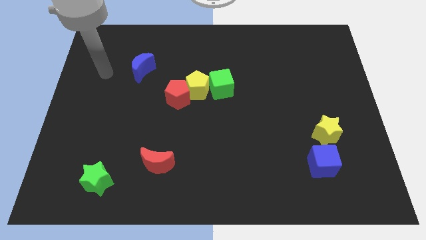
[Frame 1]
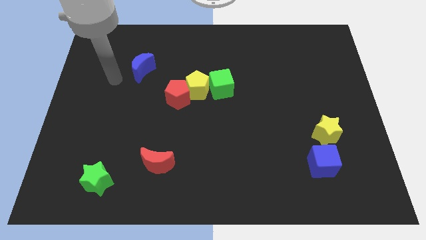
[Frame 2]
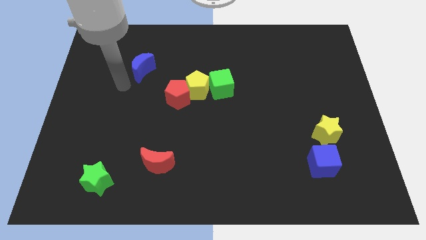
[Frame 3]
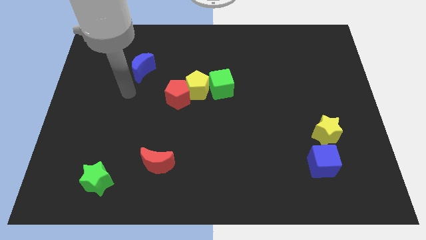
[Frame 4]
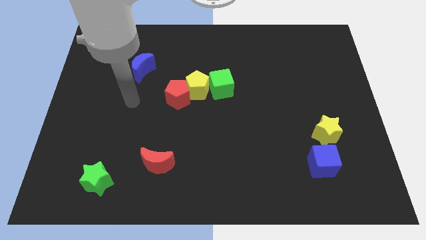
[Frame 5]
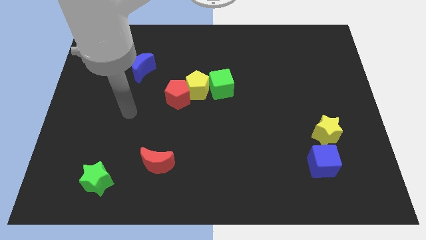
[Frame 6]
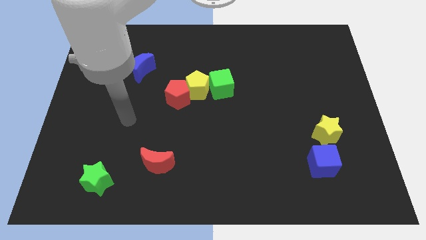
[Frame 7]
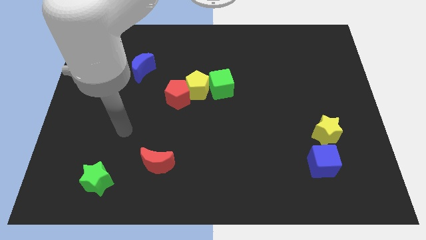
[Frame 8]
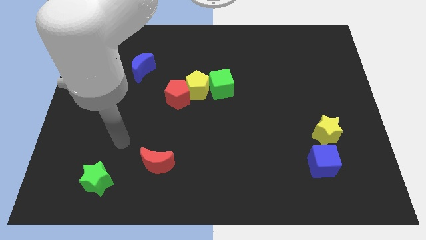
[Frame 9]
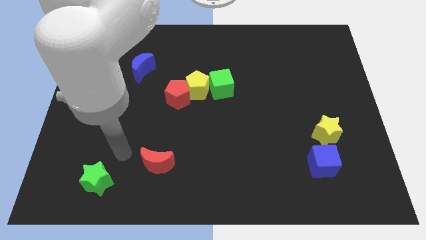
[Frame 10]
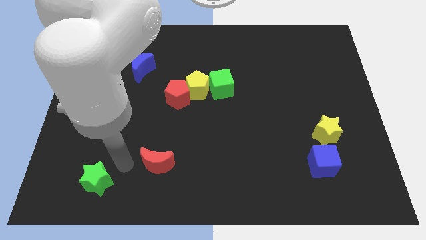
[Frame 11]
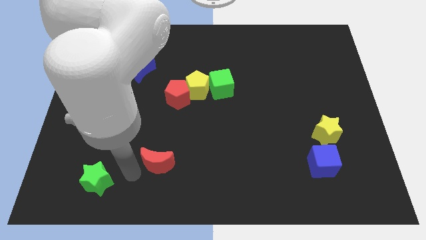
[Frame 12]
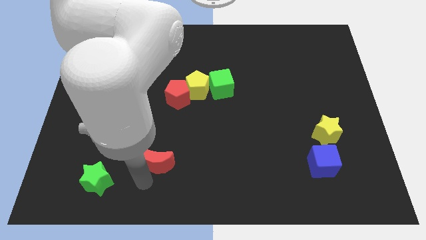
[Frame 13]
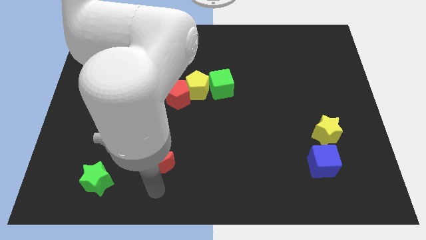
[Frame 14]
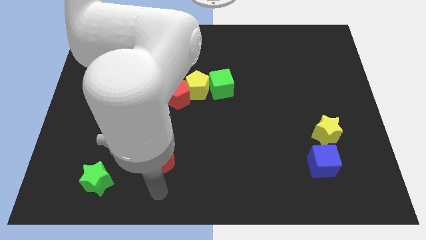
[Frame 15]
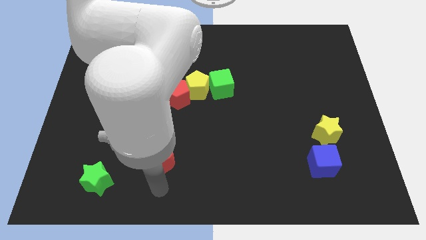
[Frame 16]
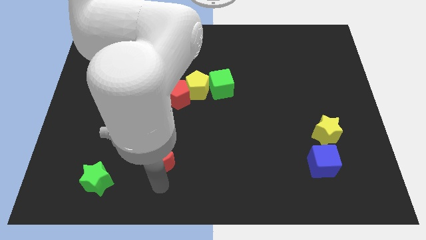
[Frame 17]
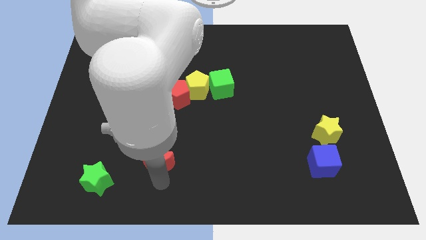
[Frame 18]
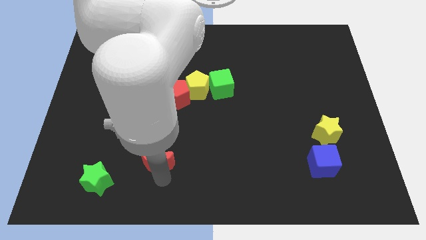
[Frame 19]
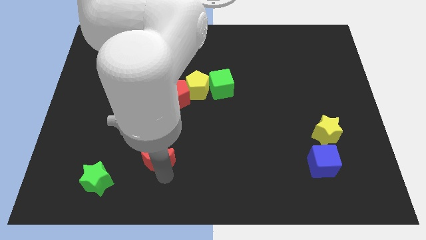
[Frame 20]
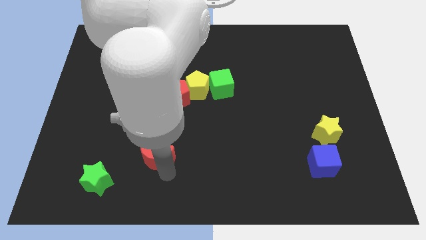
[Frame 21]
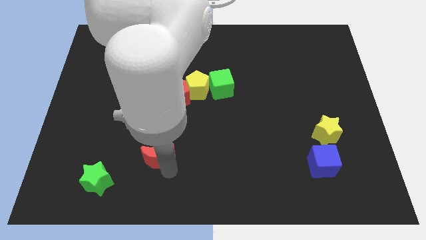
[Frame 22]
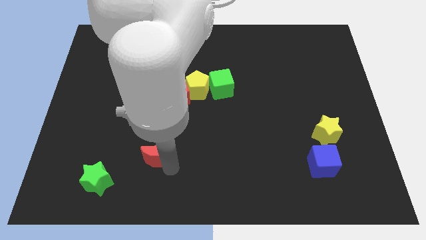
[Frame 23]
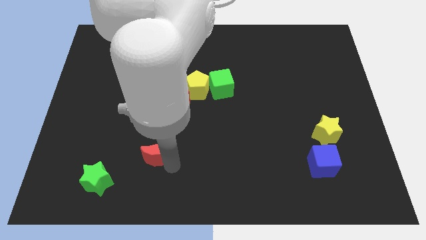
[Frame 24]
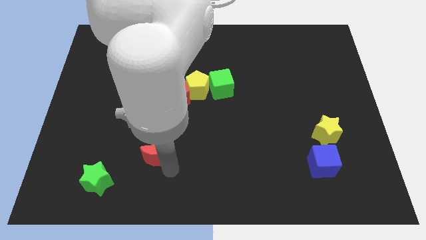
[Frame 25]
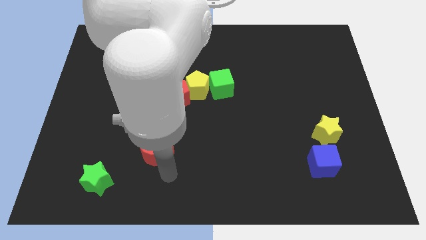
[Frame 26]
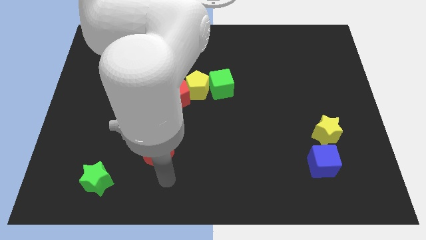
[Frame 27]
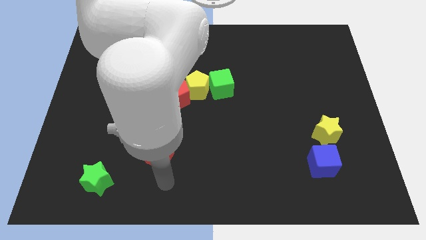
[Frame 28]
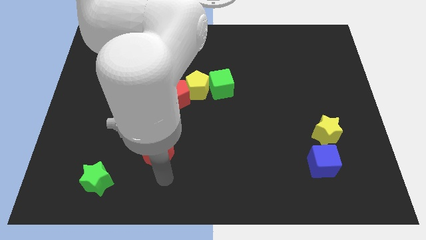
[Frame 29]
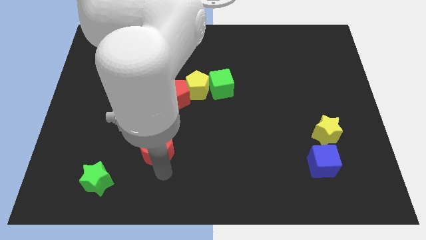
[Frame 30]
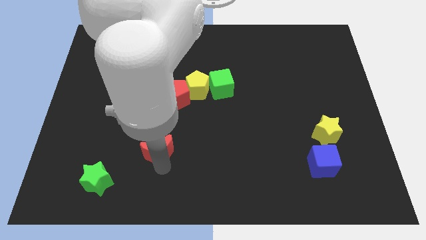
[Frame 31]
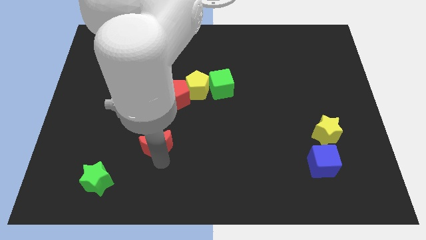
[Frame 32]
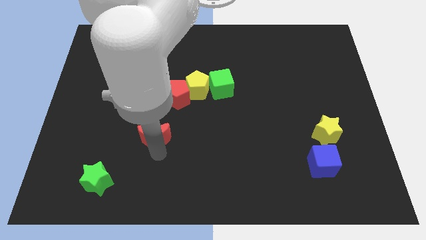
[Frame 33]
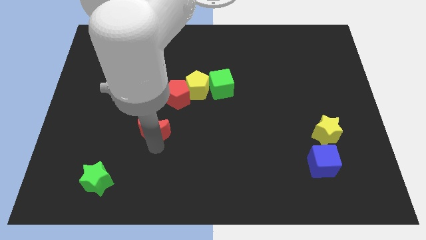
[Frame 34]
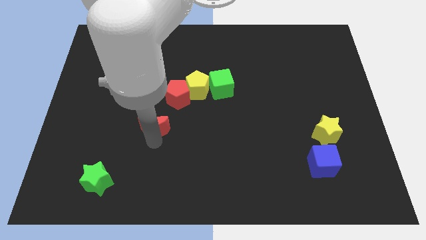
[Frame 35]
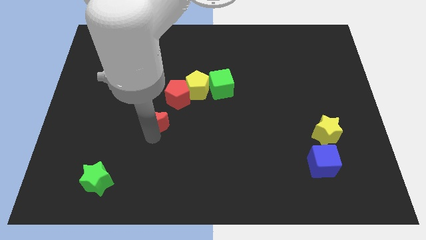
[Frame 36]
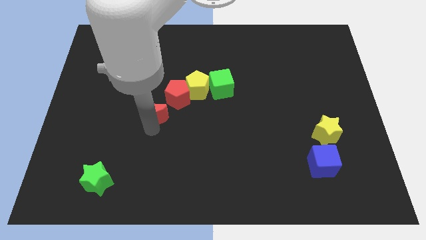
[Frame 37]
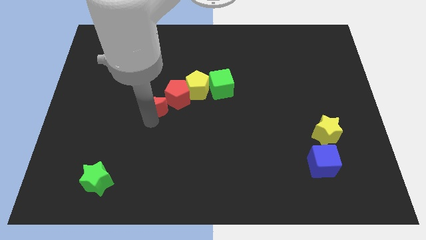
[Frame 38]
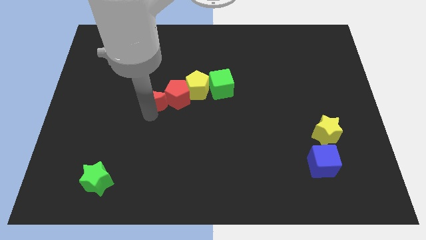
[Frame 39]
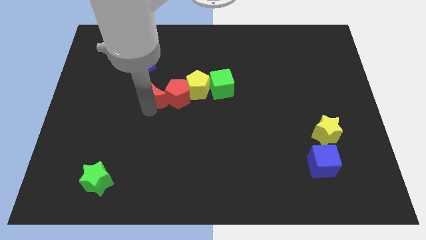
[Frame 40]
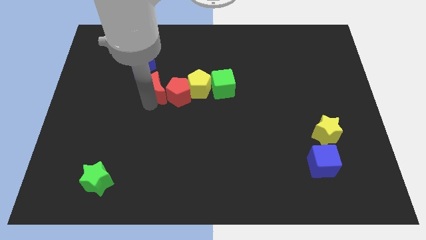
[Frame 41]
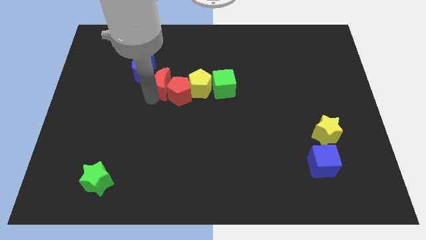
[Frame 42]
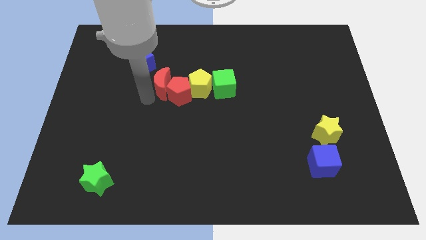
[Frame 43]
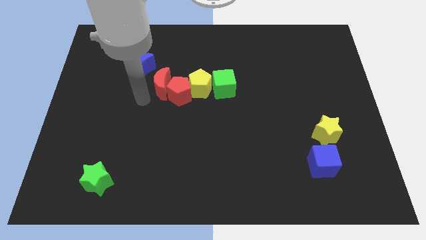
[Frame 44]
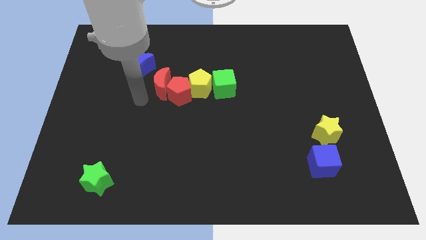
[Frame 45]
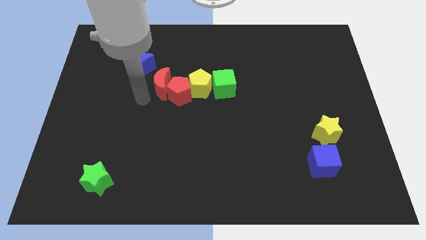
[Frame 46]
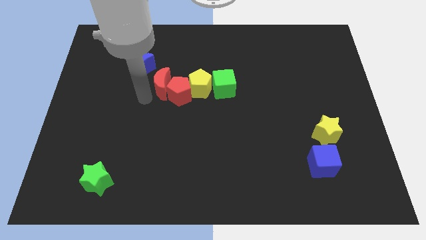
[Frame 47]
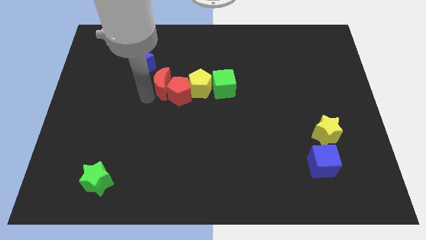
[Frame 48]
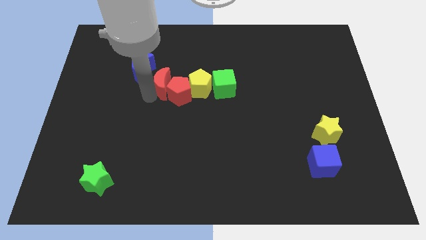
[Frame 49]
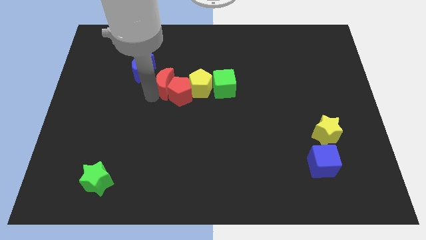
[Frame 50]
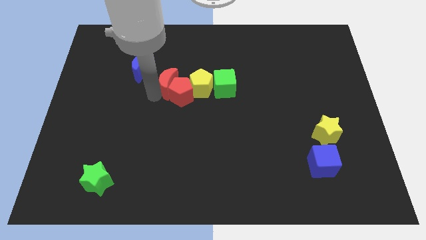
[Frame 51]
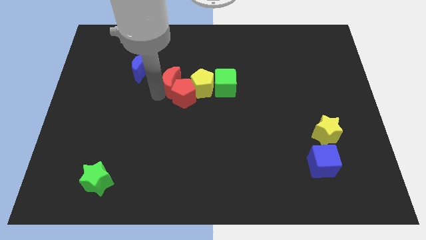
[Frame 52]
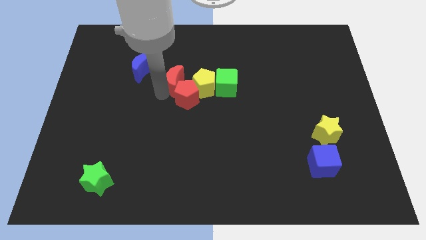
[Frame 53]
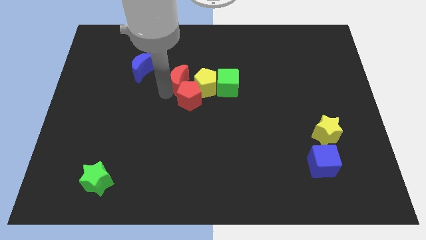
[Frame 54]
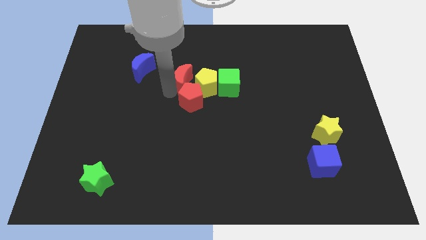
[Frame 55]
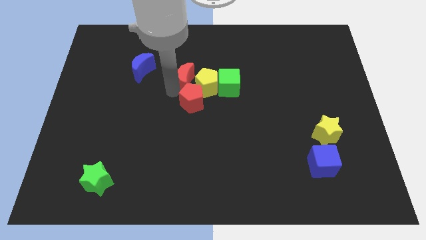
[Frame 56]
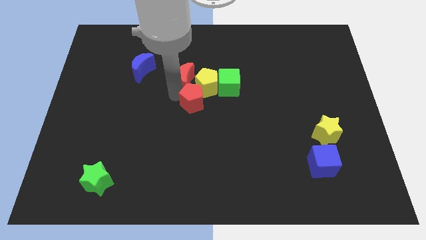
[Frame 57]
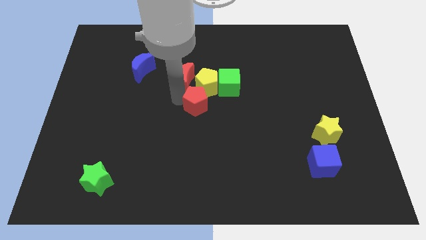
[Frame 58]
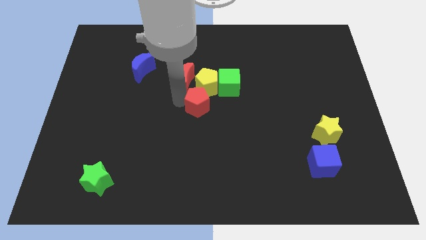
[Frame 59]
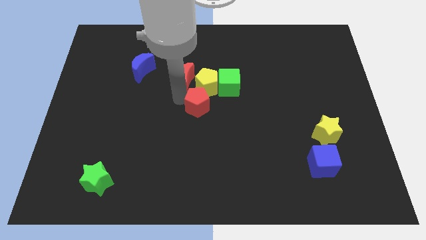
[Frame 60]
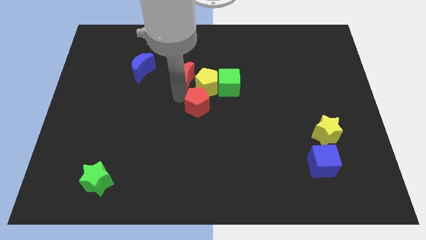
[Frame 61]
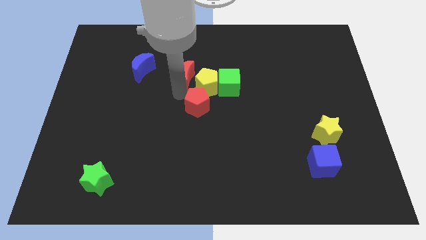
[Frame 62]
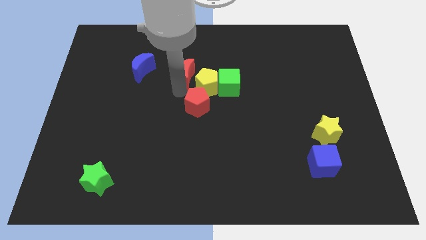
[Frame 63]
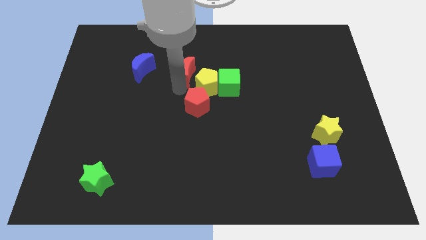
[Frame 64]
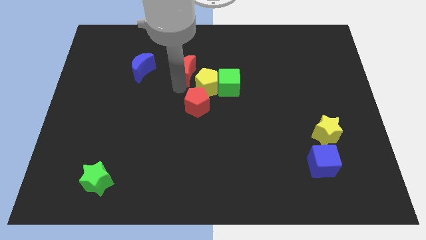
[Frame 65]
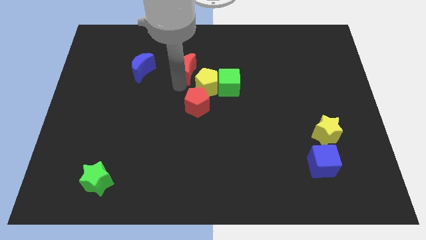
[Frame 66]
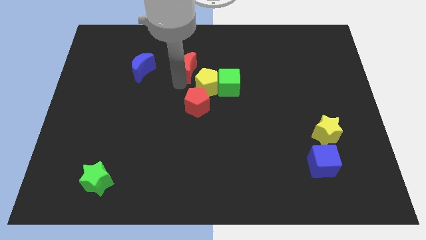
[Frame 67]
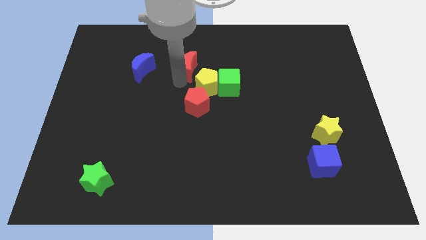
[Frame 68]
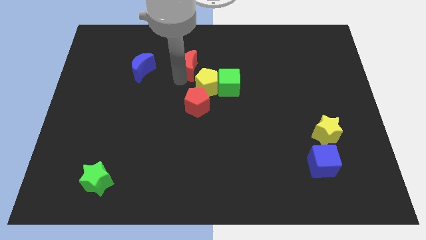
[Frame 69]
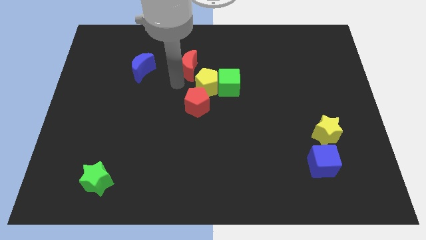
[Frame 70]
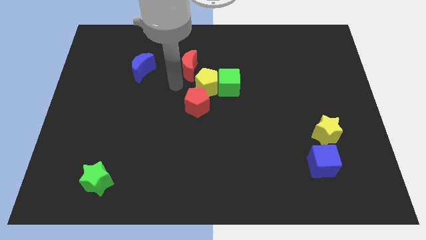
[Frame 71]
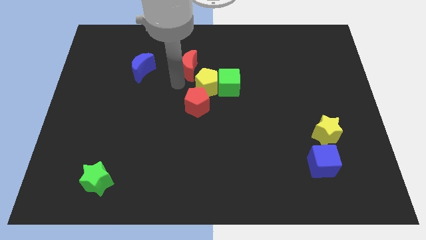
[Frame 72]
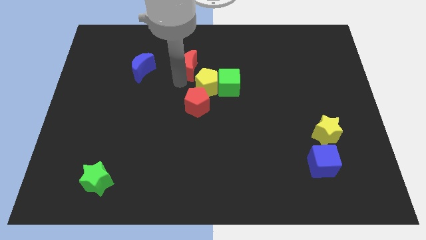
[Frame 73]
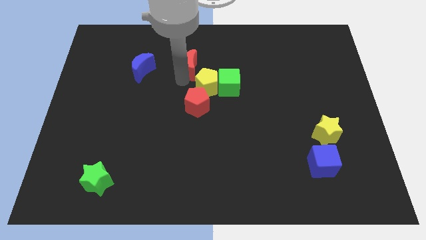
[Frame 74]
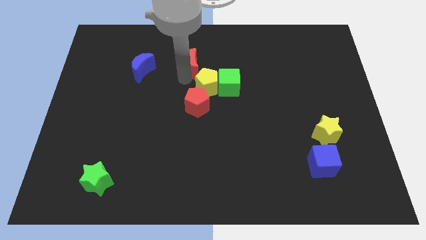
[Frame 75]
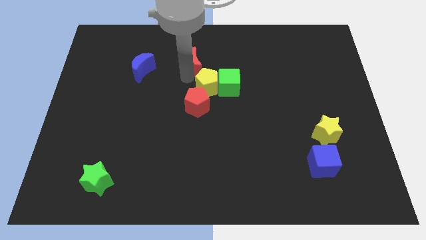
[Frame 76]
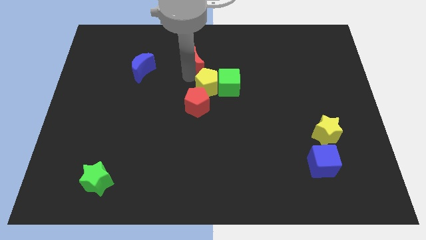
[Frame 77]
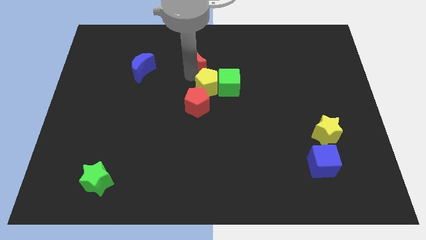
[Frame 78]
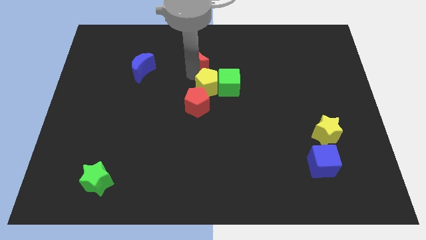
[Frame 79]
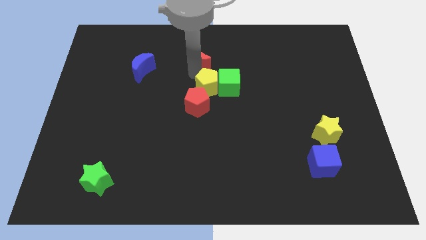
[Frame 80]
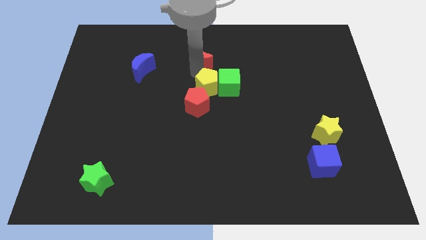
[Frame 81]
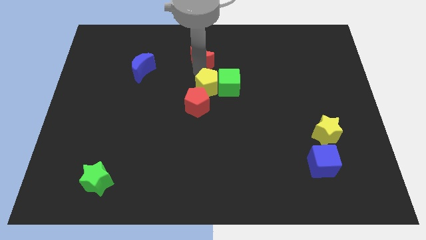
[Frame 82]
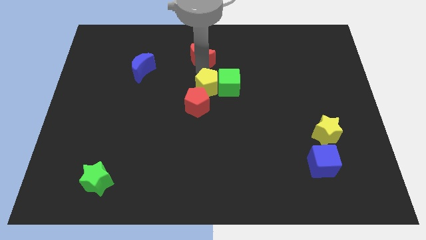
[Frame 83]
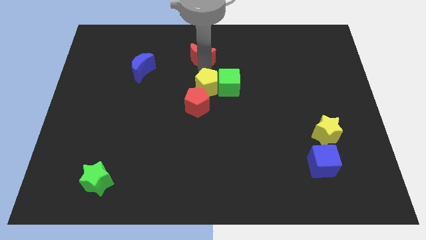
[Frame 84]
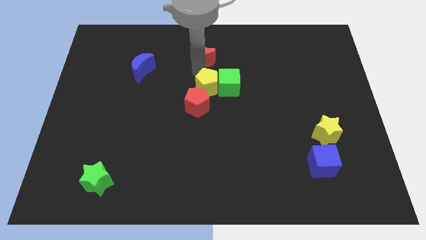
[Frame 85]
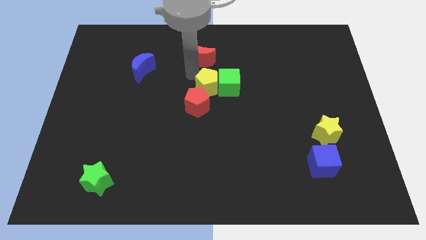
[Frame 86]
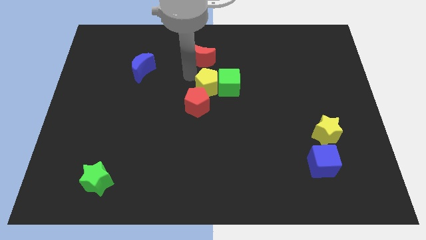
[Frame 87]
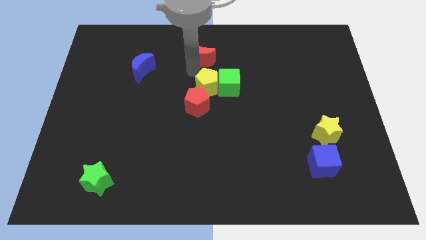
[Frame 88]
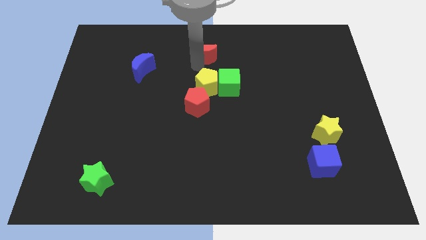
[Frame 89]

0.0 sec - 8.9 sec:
push the red moon to the top
